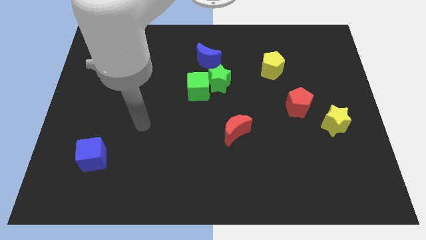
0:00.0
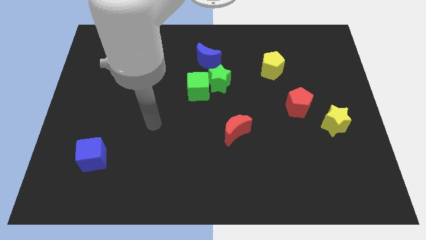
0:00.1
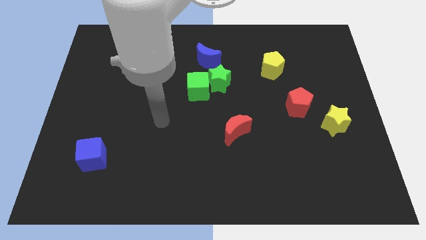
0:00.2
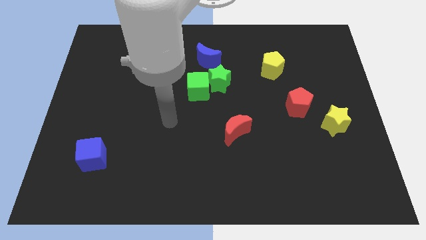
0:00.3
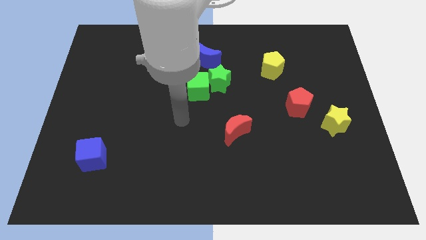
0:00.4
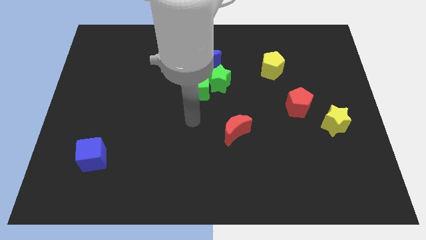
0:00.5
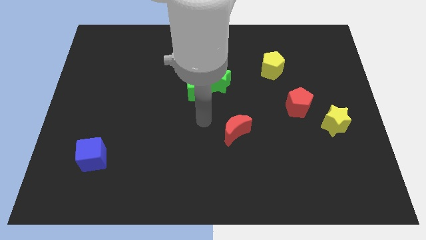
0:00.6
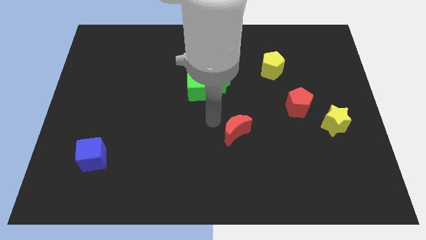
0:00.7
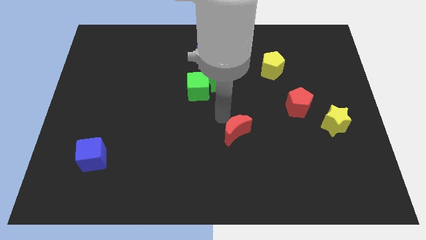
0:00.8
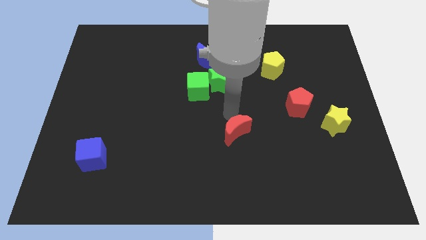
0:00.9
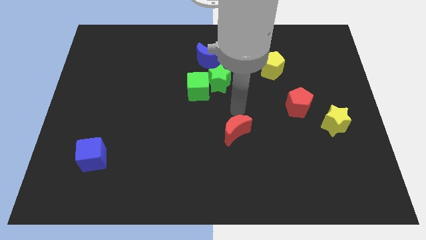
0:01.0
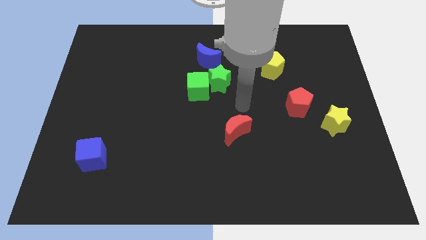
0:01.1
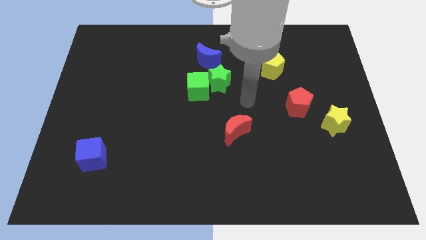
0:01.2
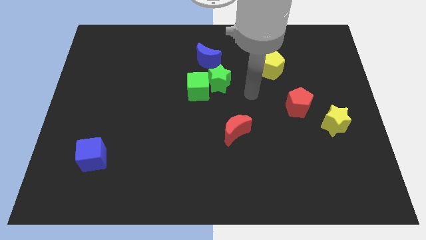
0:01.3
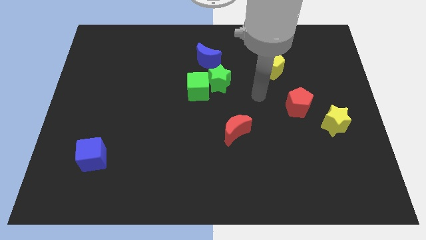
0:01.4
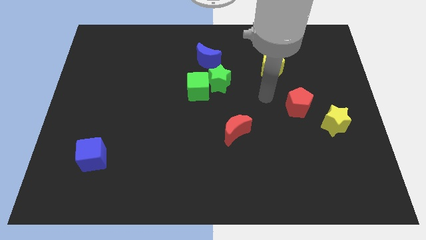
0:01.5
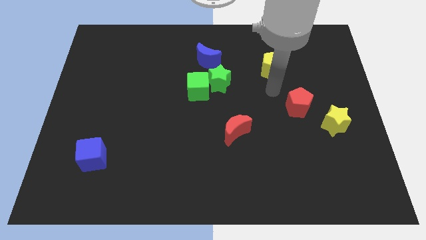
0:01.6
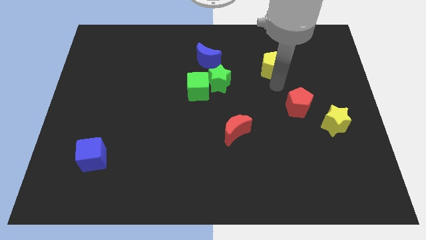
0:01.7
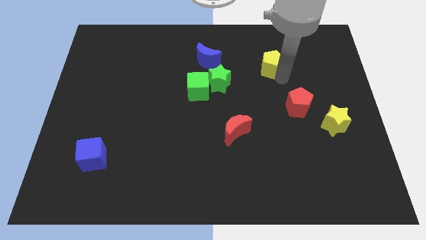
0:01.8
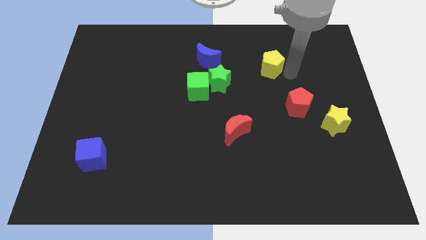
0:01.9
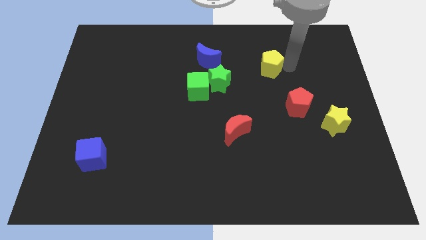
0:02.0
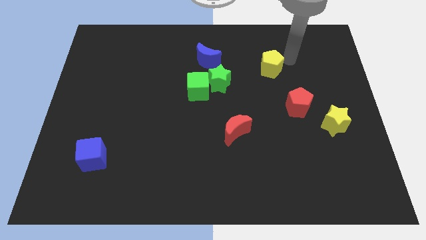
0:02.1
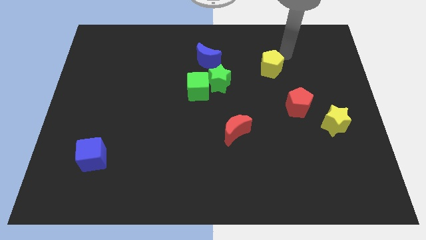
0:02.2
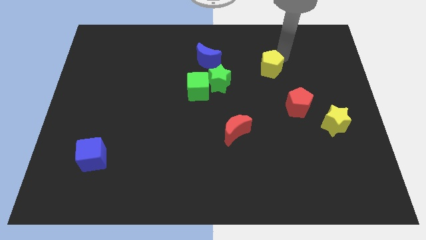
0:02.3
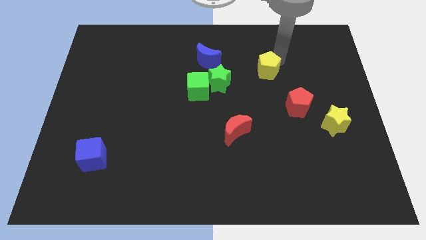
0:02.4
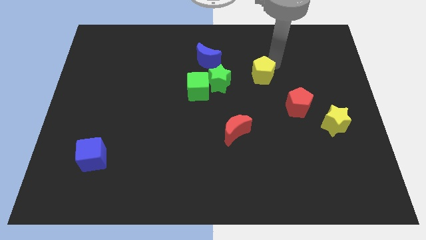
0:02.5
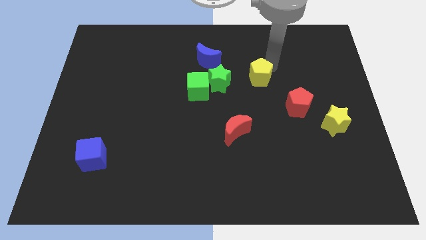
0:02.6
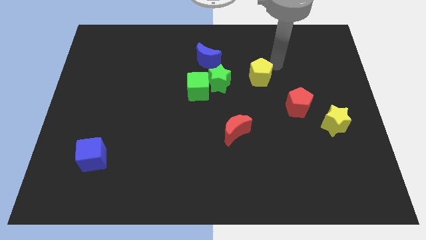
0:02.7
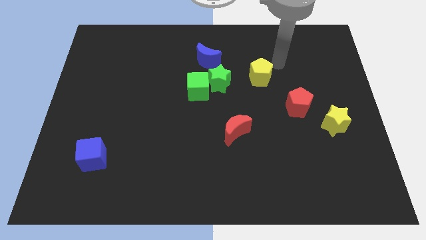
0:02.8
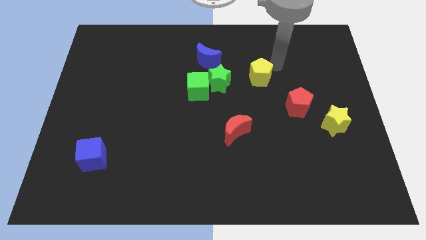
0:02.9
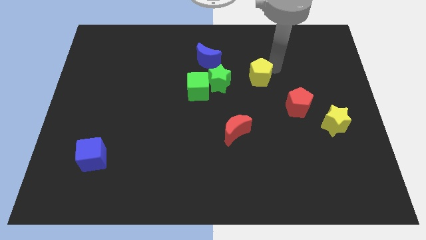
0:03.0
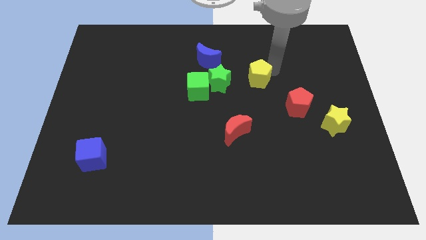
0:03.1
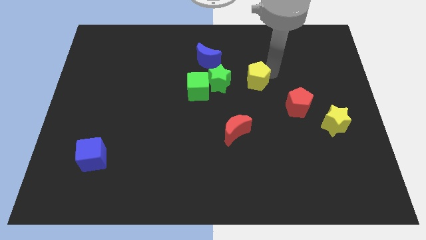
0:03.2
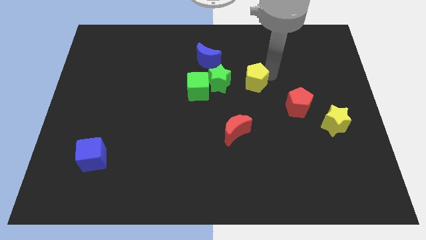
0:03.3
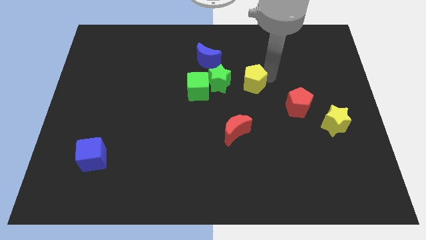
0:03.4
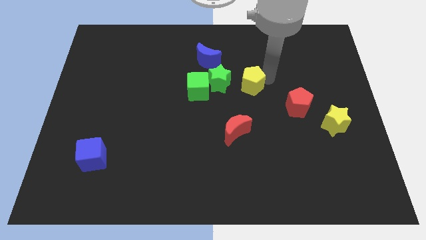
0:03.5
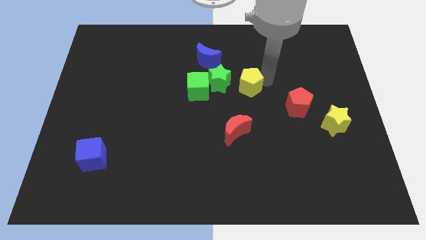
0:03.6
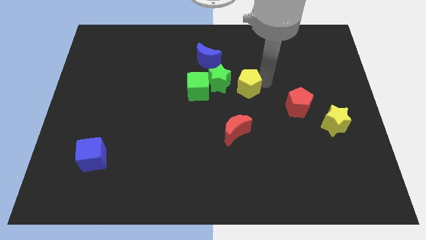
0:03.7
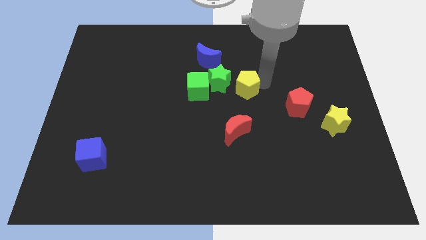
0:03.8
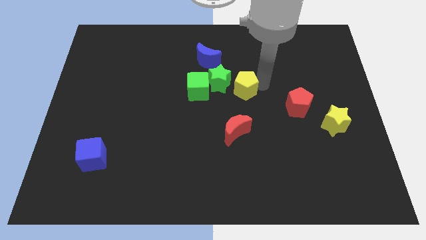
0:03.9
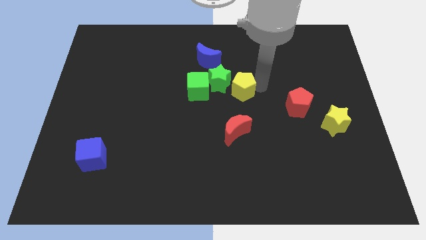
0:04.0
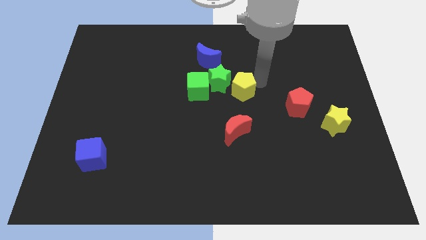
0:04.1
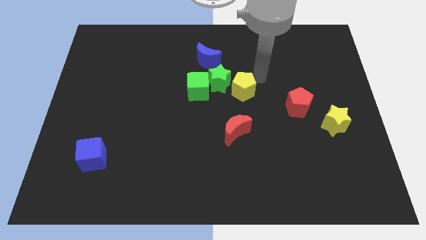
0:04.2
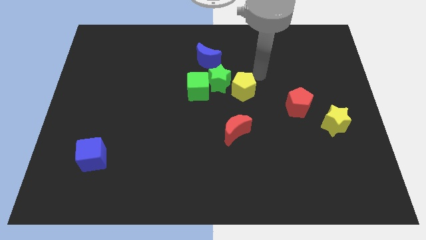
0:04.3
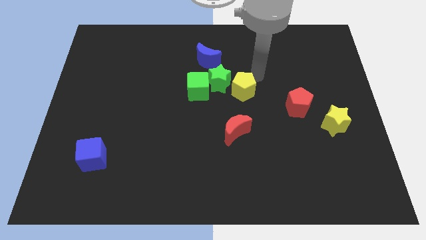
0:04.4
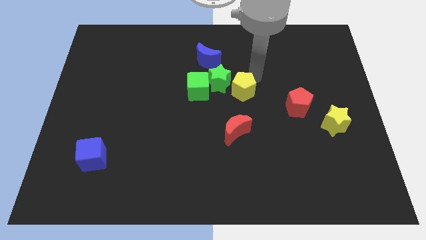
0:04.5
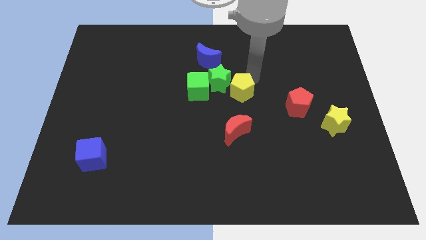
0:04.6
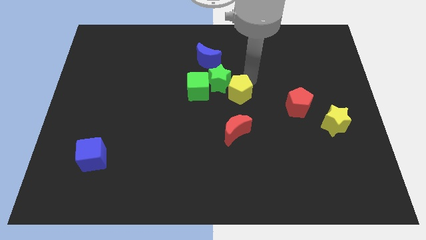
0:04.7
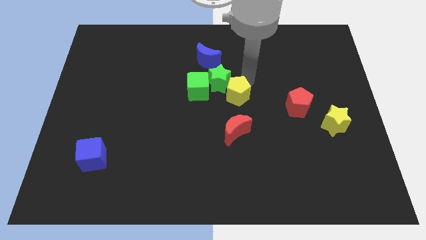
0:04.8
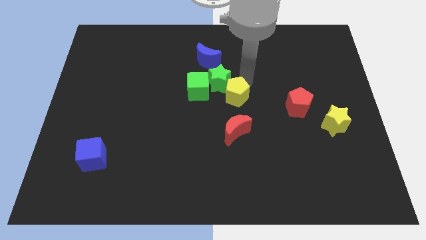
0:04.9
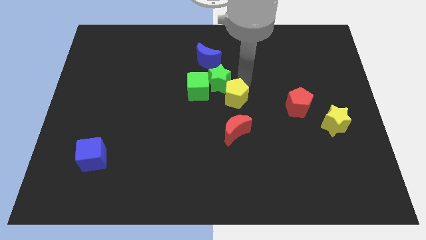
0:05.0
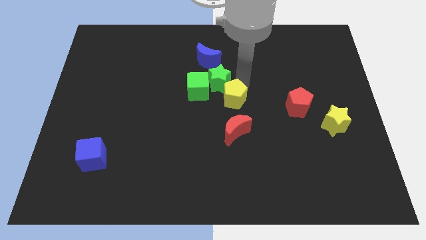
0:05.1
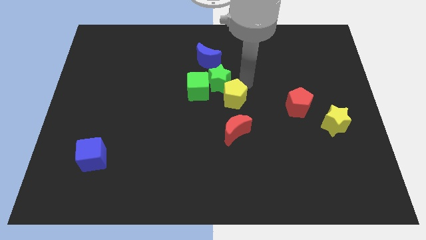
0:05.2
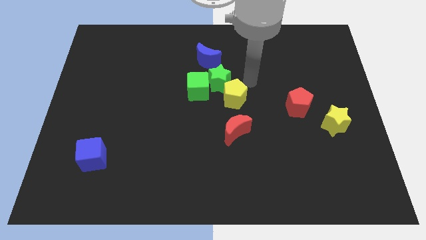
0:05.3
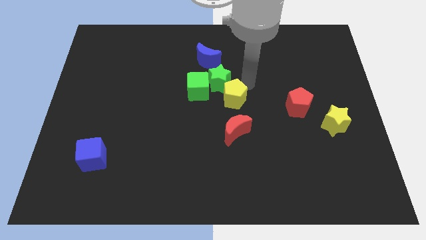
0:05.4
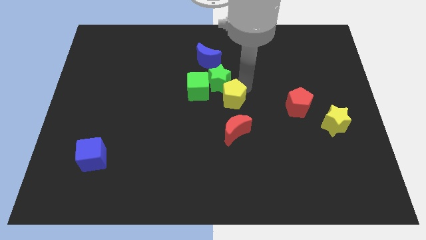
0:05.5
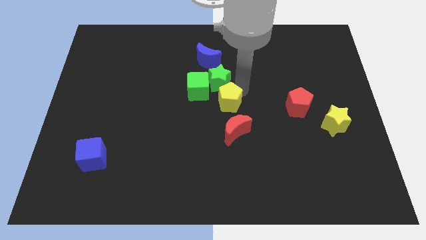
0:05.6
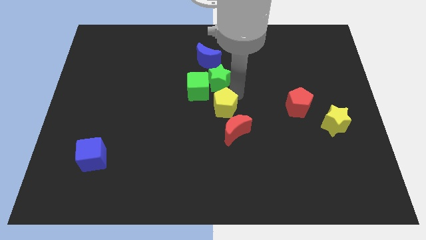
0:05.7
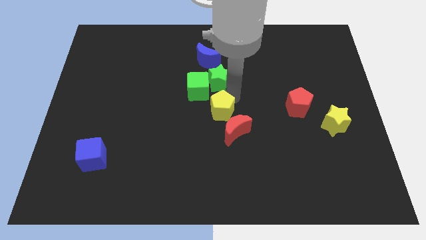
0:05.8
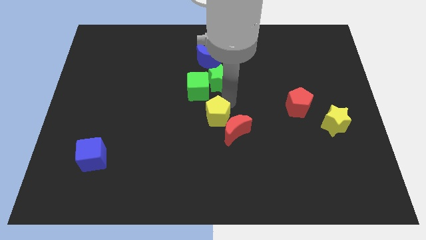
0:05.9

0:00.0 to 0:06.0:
push the yellow pentagon downwards and left

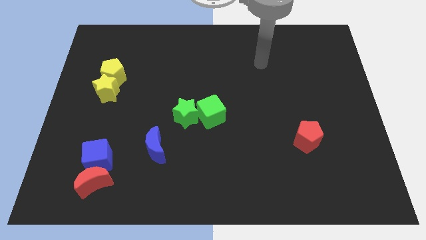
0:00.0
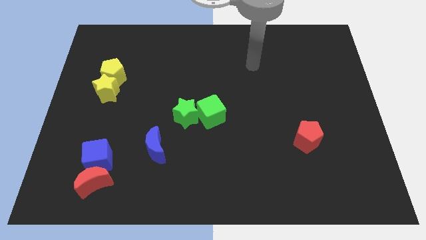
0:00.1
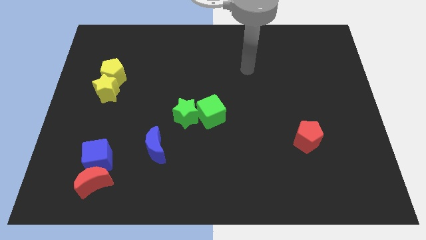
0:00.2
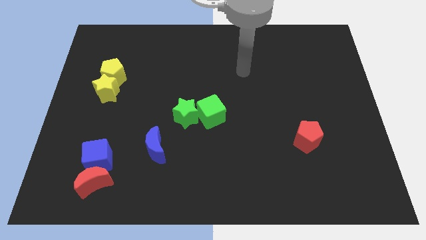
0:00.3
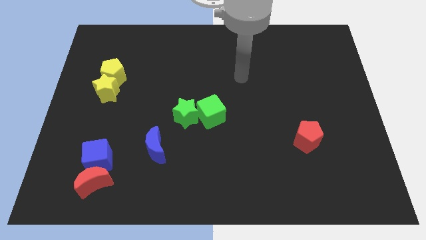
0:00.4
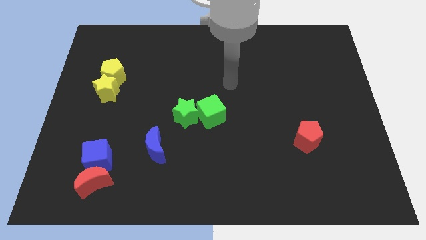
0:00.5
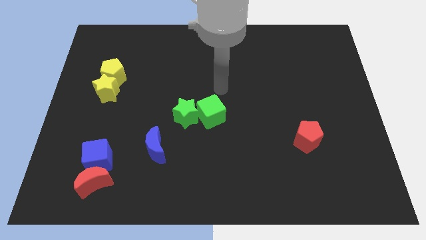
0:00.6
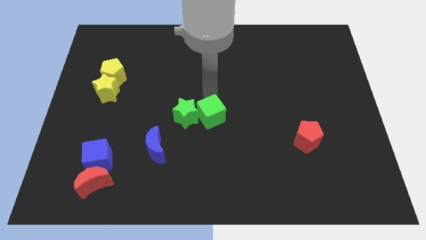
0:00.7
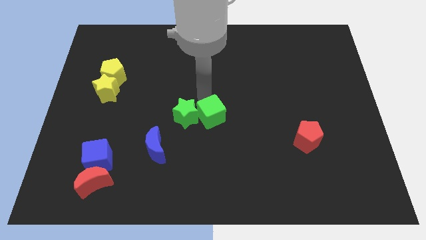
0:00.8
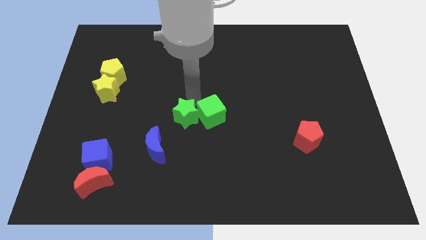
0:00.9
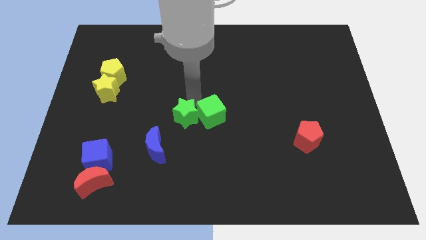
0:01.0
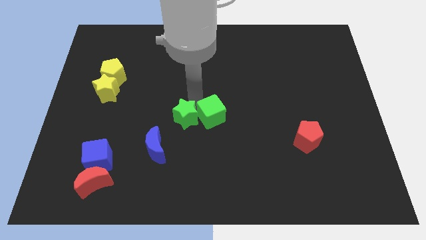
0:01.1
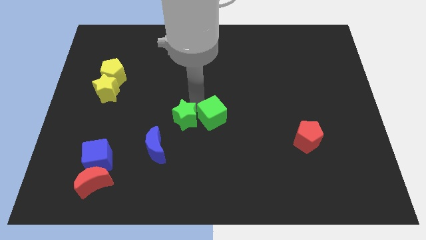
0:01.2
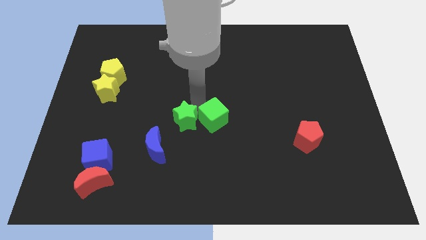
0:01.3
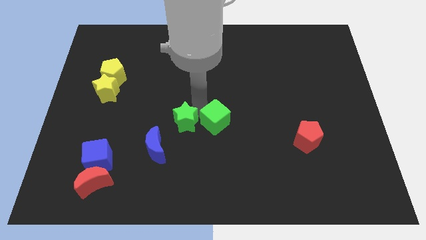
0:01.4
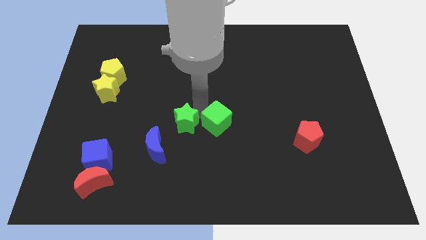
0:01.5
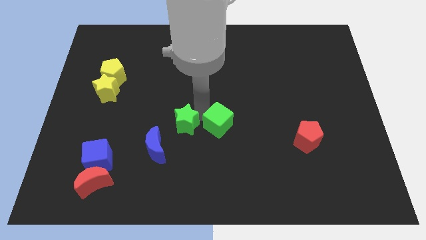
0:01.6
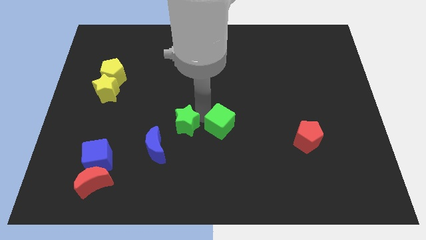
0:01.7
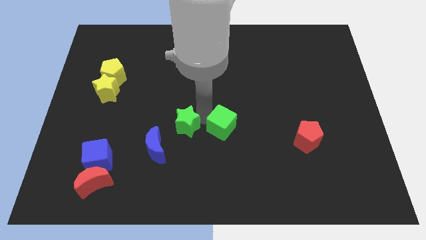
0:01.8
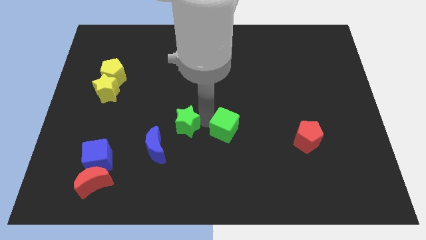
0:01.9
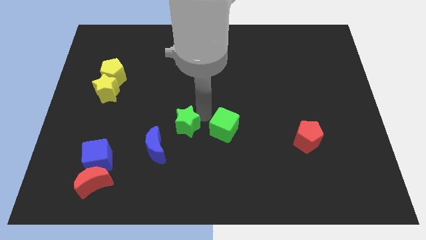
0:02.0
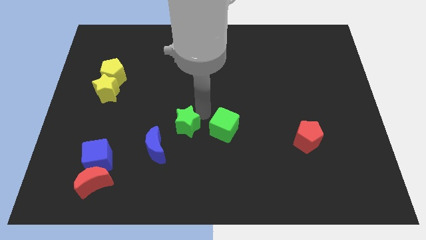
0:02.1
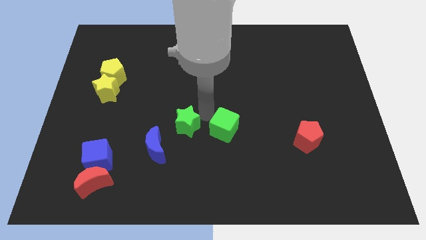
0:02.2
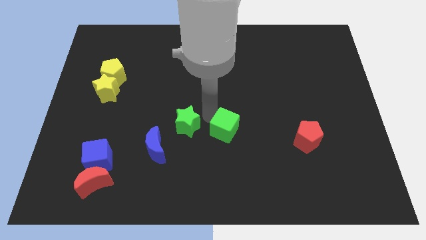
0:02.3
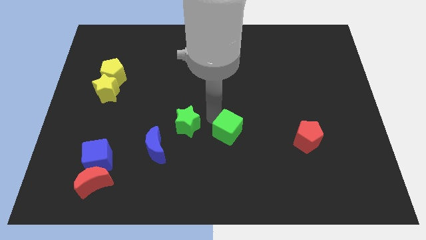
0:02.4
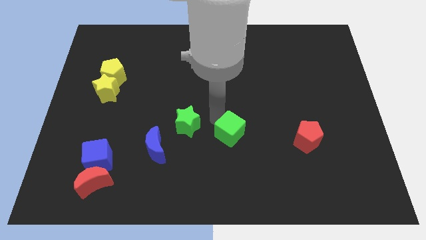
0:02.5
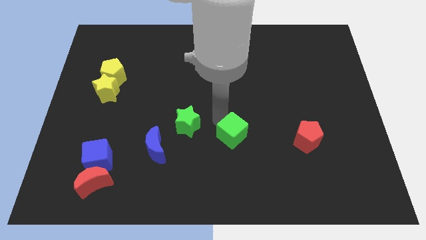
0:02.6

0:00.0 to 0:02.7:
push the green cube down and right somewhat
